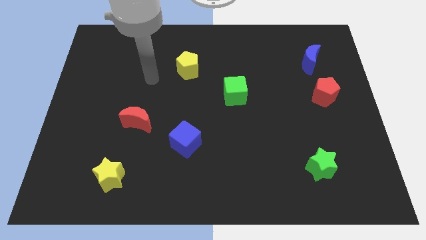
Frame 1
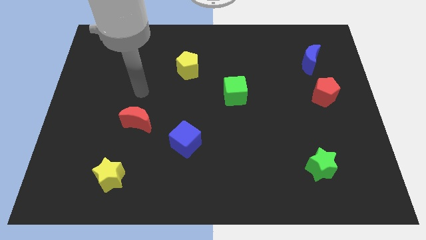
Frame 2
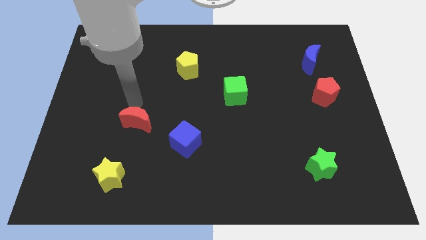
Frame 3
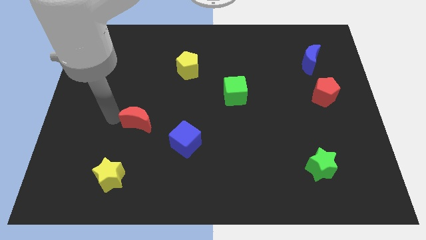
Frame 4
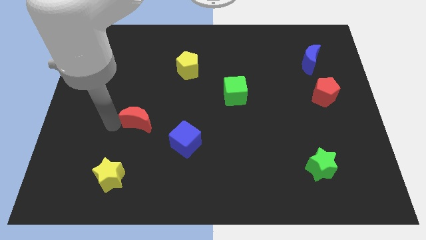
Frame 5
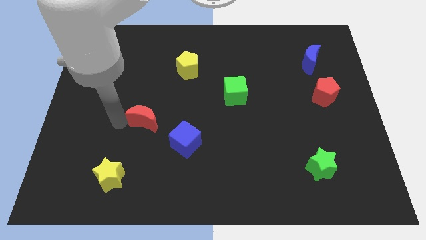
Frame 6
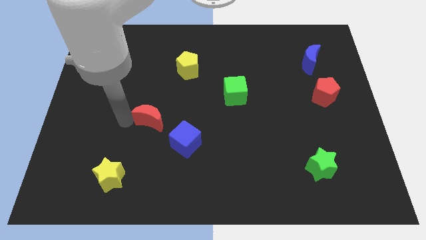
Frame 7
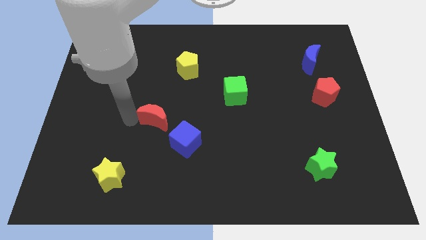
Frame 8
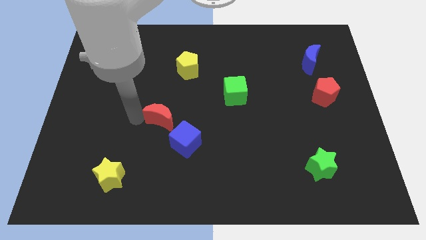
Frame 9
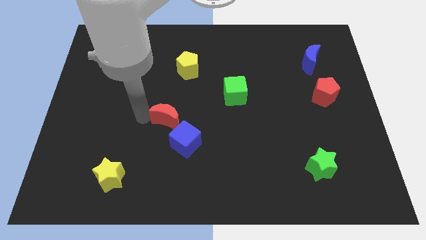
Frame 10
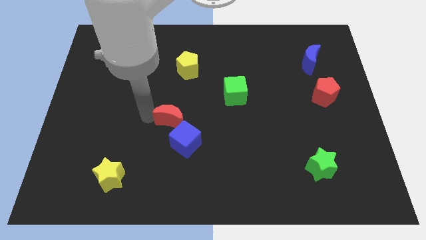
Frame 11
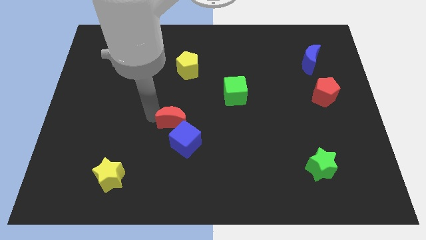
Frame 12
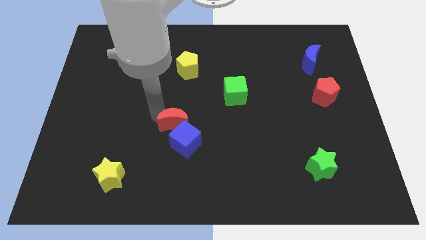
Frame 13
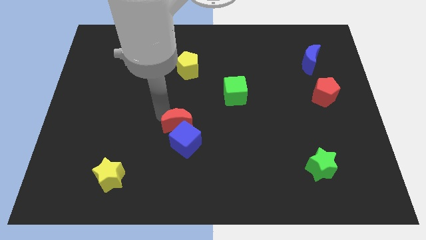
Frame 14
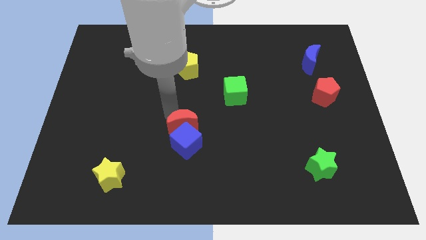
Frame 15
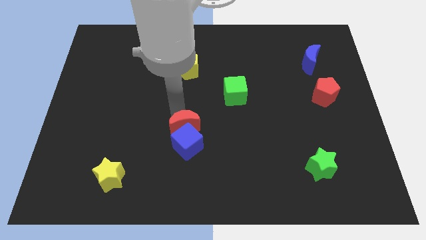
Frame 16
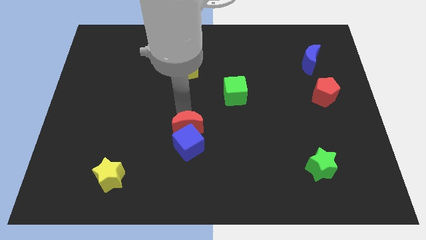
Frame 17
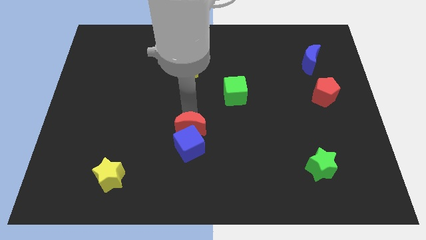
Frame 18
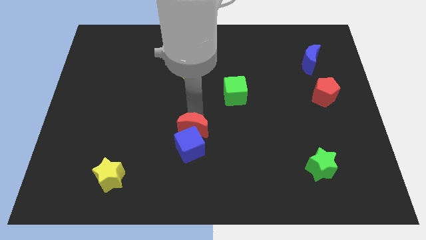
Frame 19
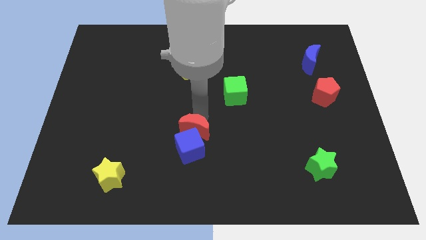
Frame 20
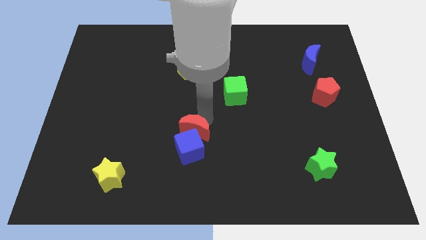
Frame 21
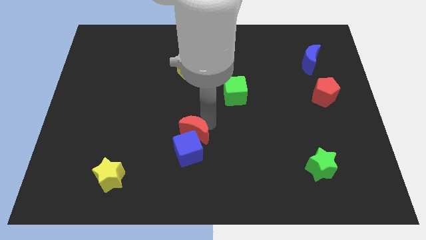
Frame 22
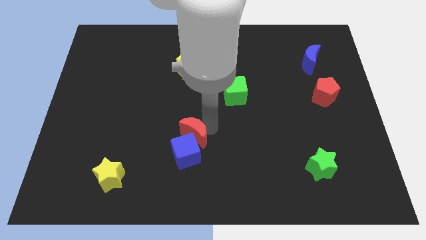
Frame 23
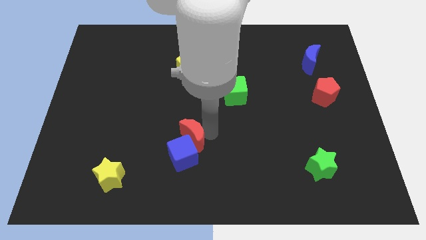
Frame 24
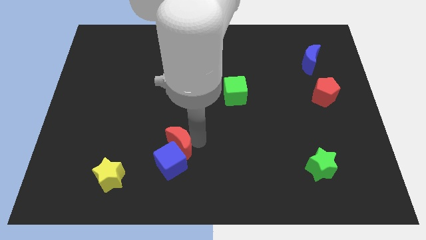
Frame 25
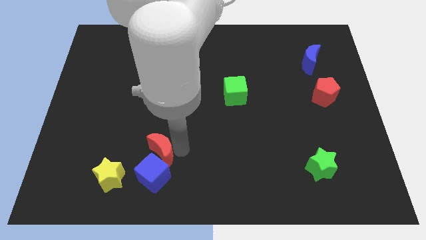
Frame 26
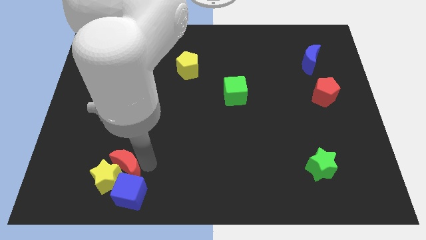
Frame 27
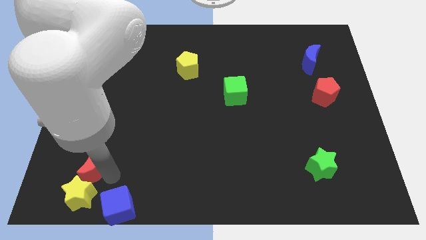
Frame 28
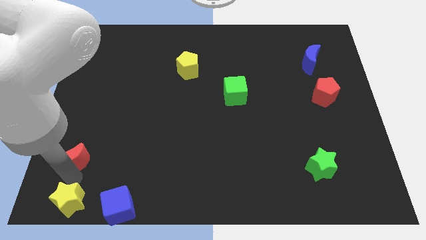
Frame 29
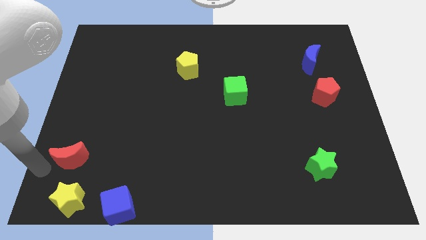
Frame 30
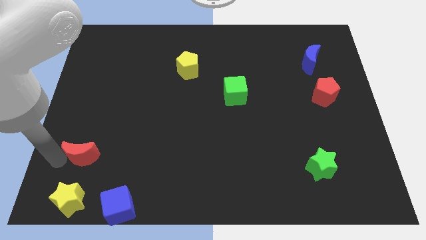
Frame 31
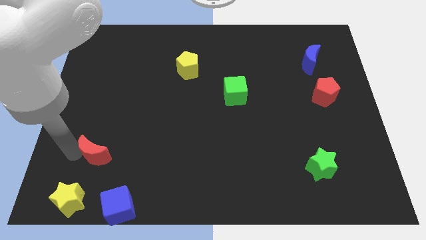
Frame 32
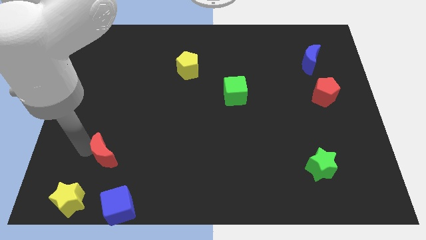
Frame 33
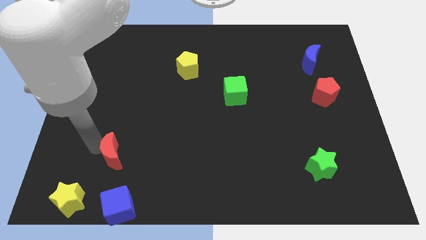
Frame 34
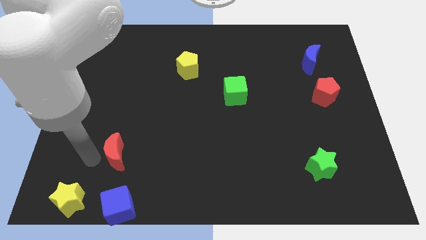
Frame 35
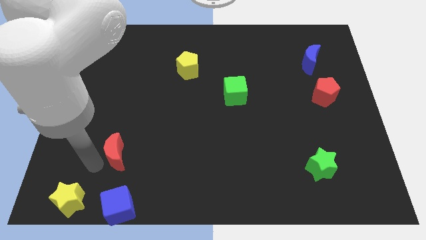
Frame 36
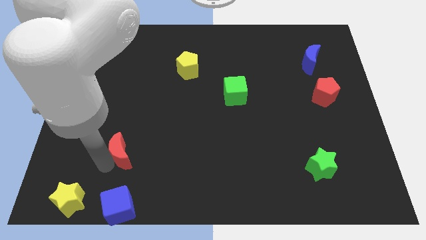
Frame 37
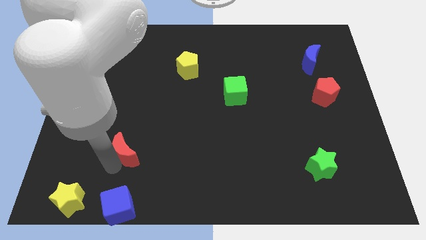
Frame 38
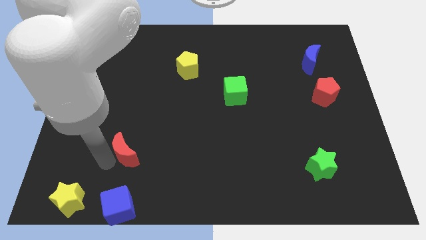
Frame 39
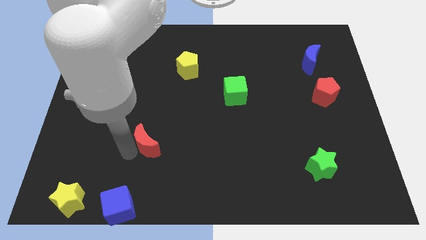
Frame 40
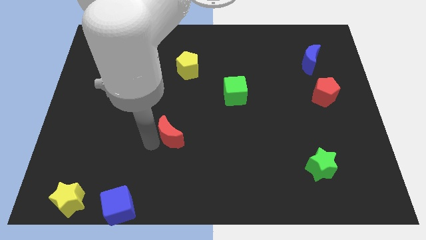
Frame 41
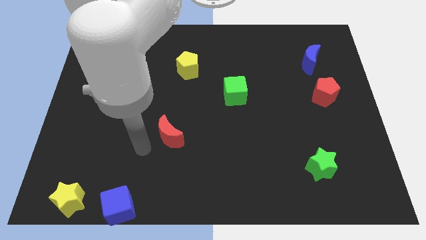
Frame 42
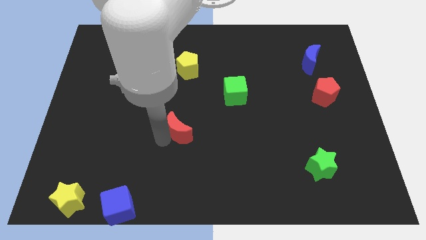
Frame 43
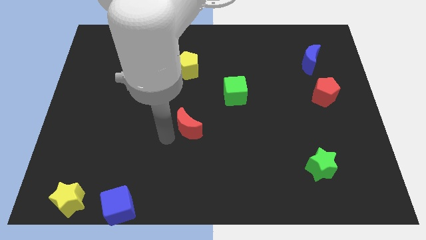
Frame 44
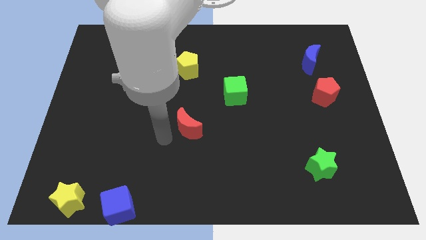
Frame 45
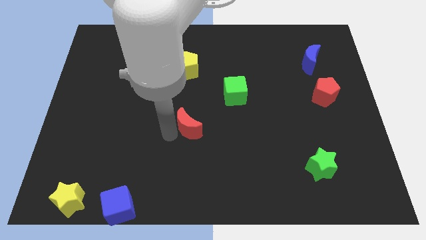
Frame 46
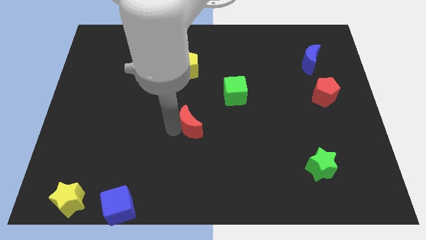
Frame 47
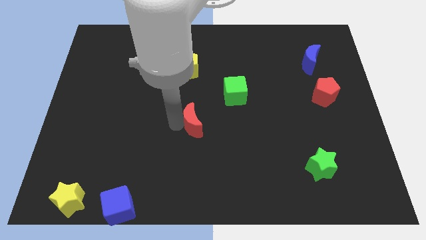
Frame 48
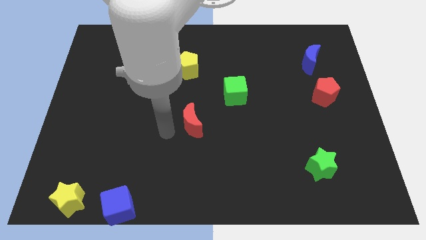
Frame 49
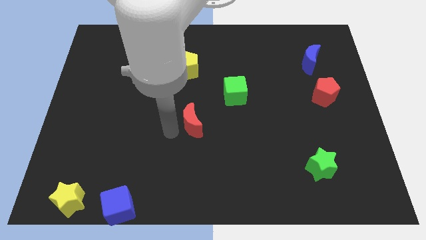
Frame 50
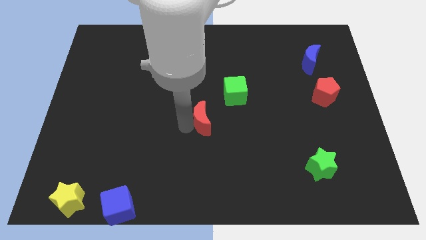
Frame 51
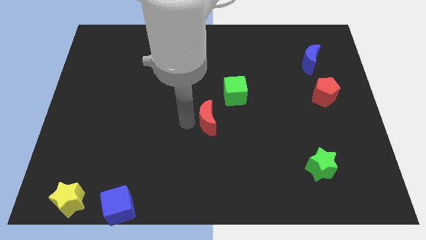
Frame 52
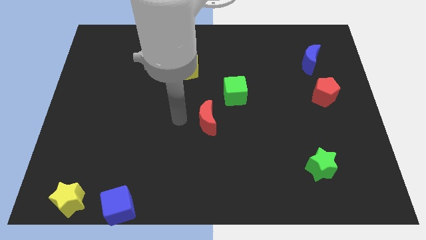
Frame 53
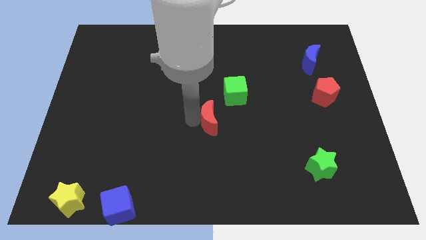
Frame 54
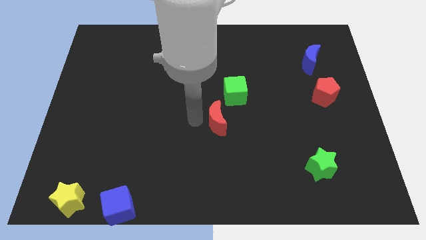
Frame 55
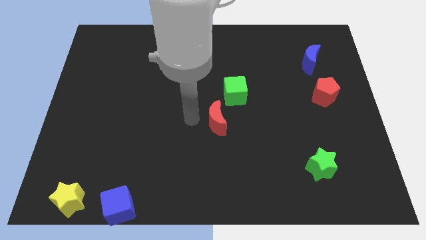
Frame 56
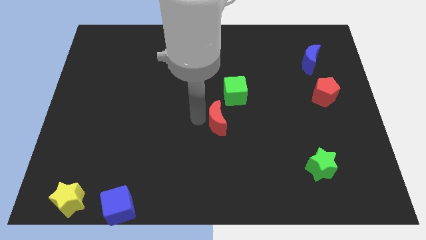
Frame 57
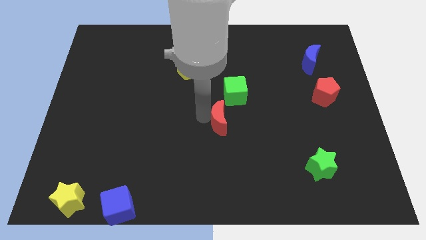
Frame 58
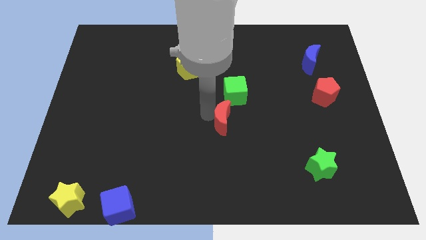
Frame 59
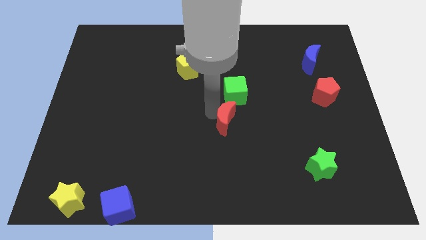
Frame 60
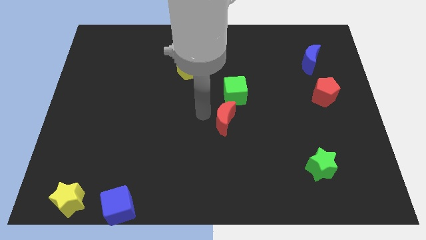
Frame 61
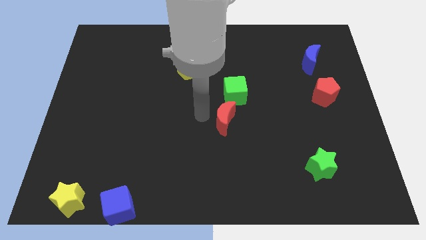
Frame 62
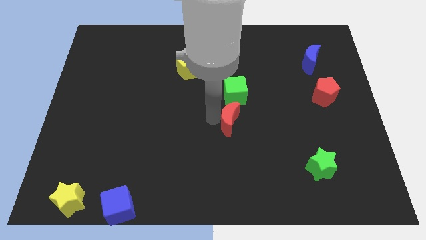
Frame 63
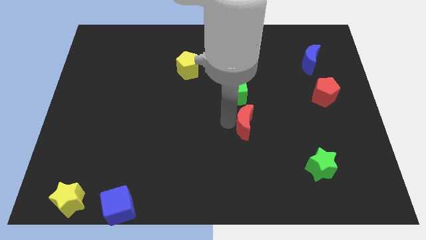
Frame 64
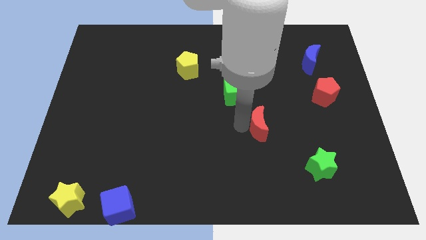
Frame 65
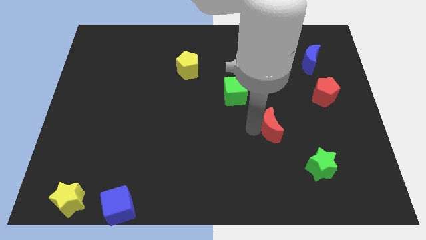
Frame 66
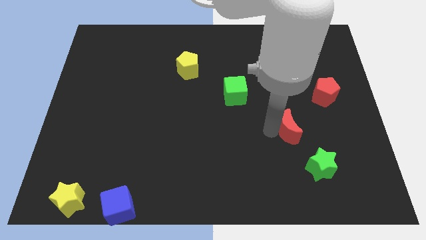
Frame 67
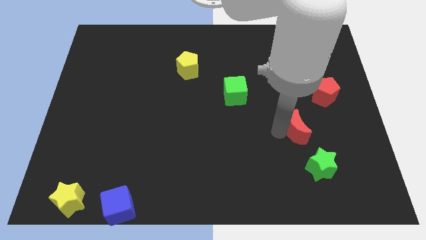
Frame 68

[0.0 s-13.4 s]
push the red moon to the top side of the green star

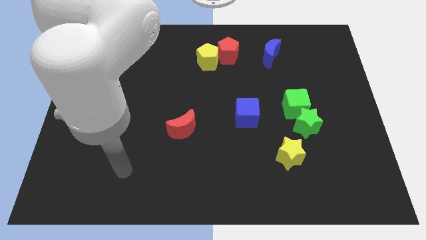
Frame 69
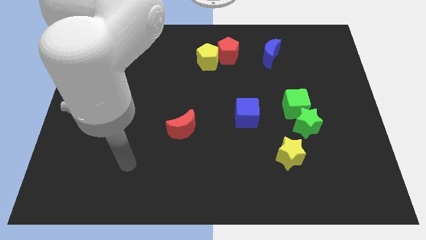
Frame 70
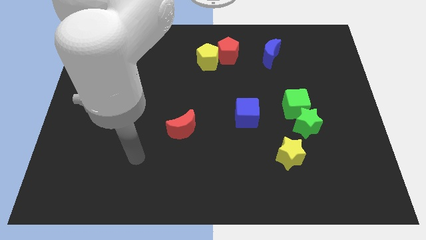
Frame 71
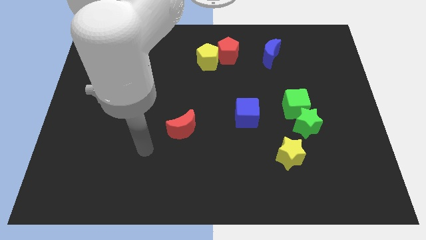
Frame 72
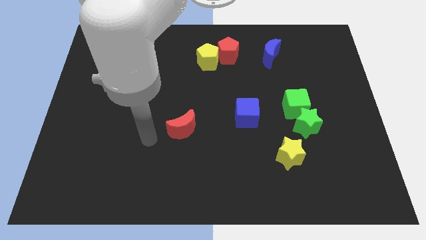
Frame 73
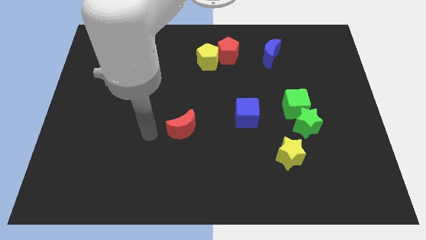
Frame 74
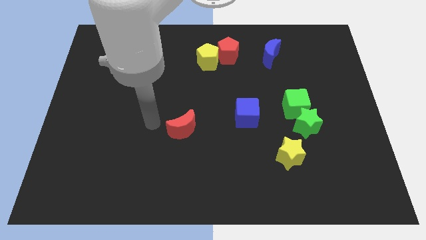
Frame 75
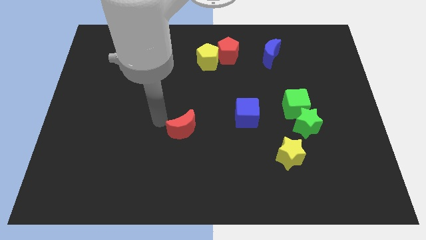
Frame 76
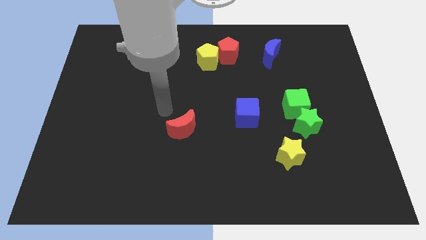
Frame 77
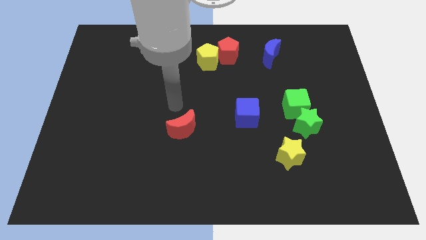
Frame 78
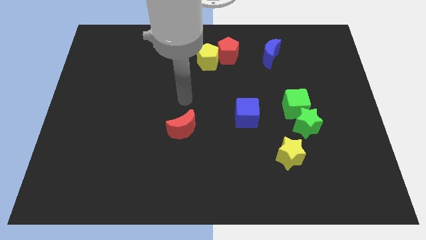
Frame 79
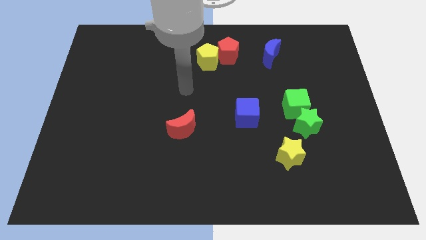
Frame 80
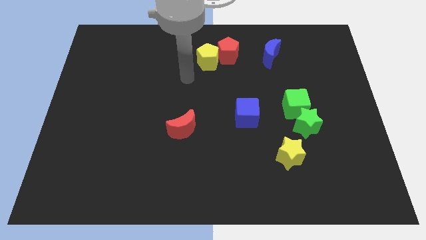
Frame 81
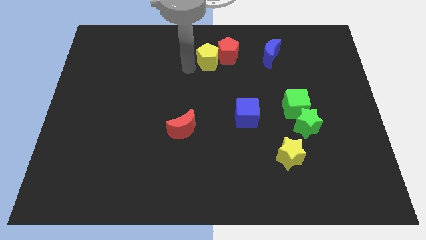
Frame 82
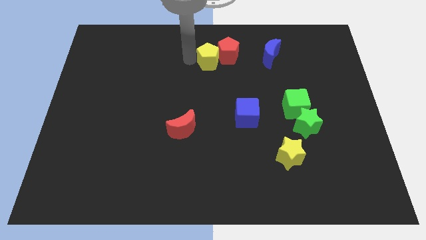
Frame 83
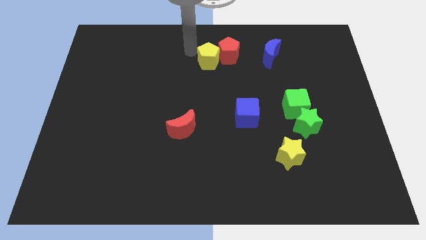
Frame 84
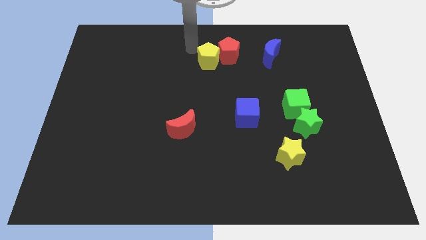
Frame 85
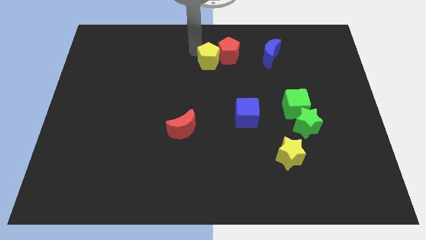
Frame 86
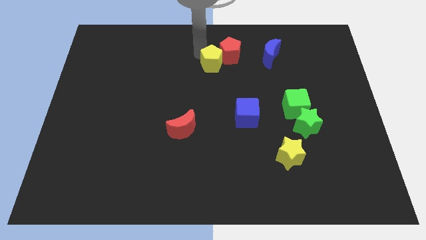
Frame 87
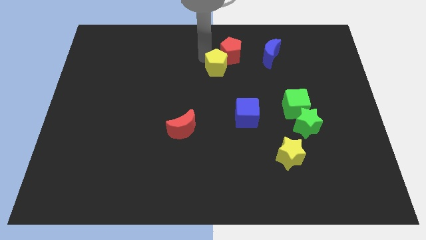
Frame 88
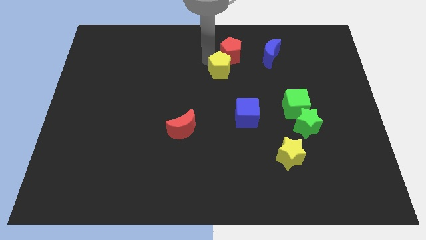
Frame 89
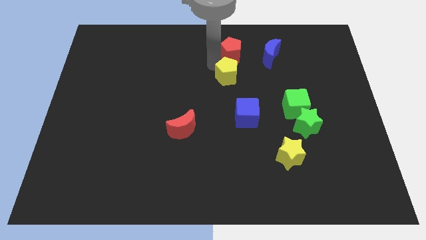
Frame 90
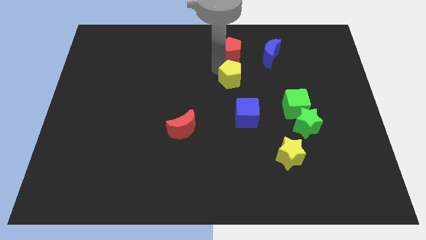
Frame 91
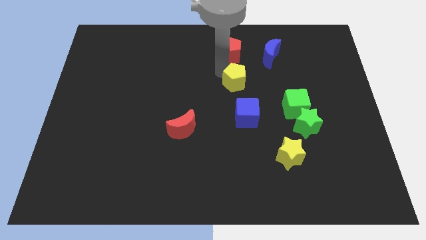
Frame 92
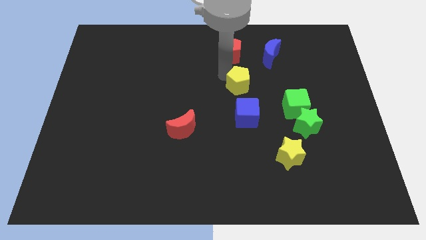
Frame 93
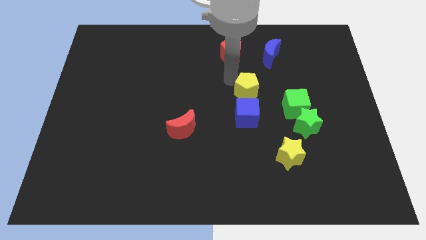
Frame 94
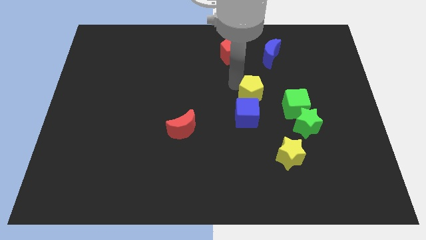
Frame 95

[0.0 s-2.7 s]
push the yellow pentagon to the top left side of the green cube
